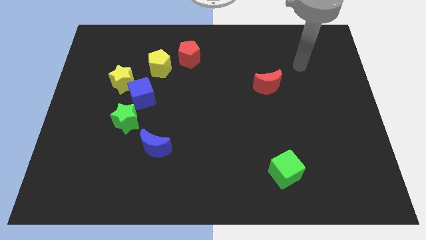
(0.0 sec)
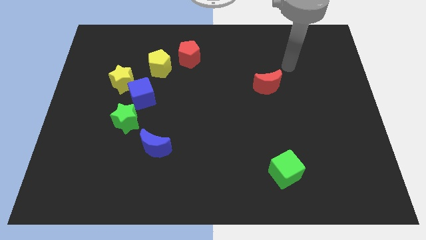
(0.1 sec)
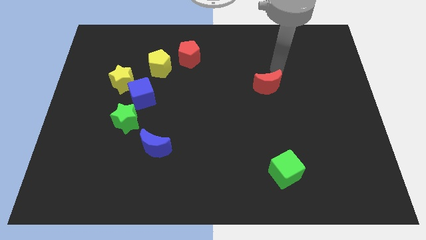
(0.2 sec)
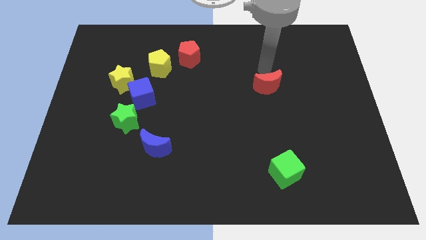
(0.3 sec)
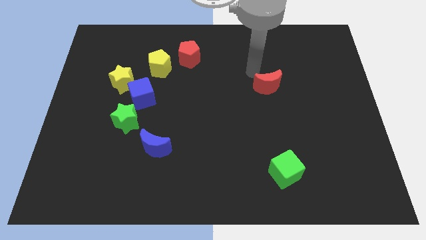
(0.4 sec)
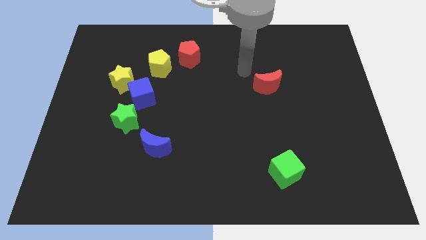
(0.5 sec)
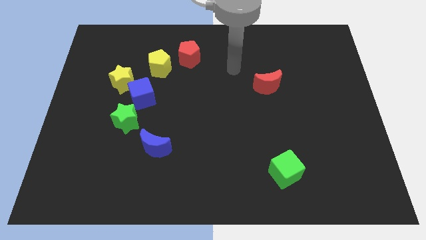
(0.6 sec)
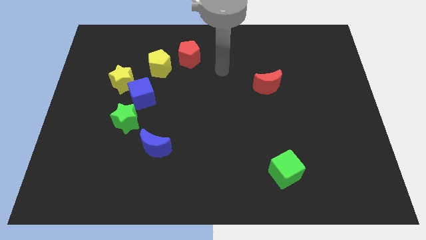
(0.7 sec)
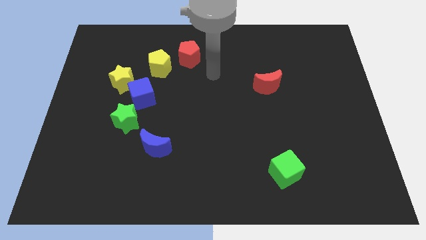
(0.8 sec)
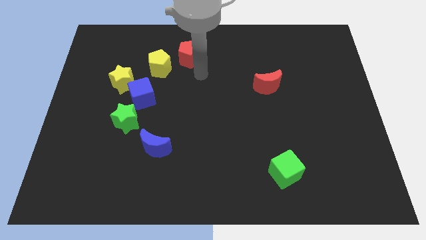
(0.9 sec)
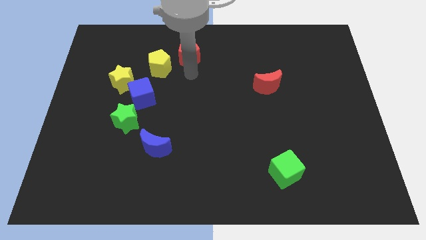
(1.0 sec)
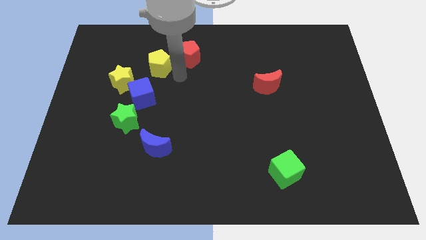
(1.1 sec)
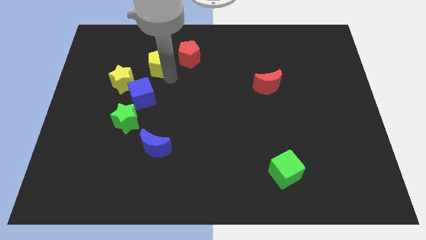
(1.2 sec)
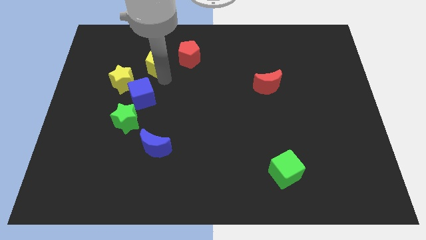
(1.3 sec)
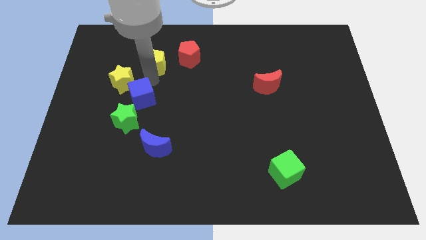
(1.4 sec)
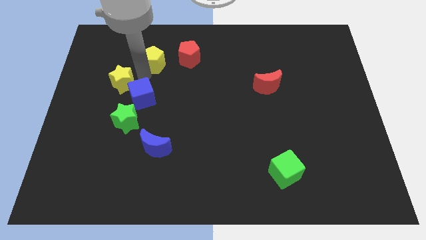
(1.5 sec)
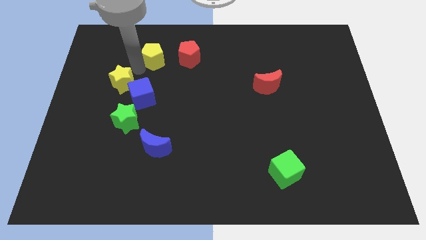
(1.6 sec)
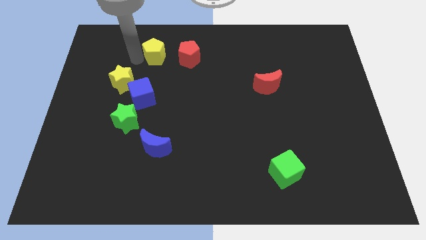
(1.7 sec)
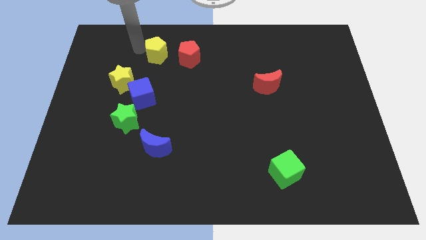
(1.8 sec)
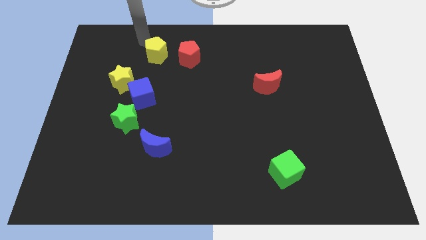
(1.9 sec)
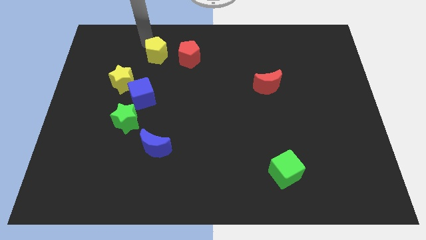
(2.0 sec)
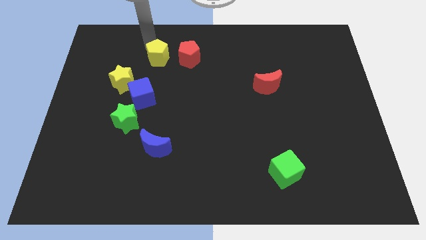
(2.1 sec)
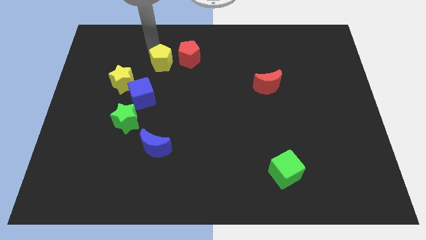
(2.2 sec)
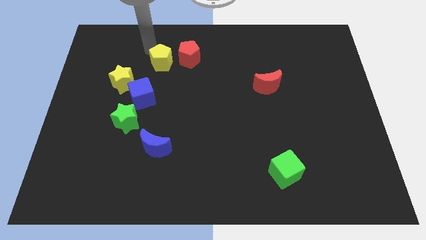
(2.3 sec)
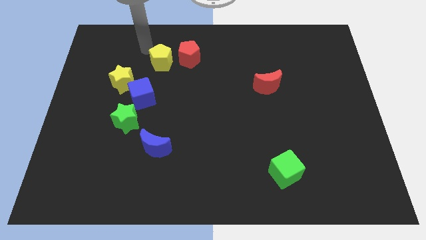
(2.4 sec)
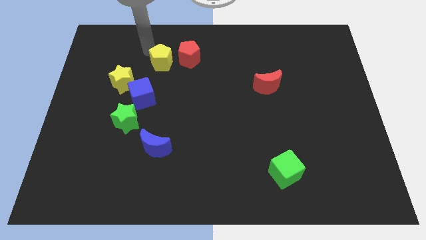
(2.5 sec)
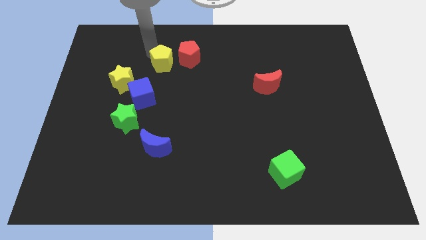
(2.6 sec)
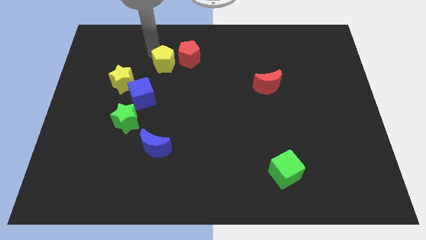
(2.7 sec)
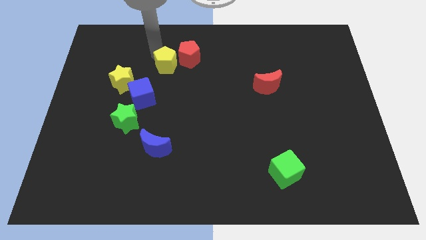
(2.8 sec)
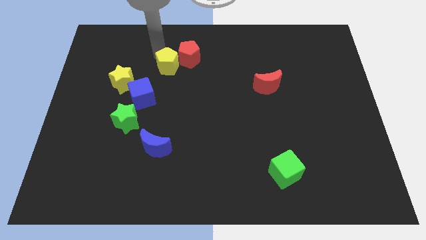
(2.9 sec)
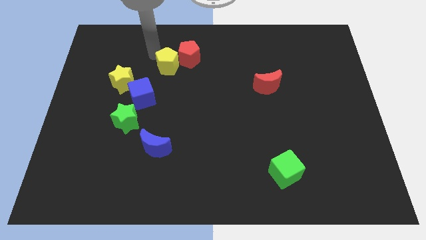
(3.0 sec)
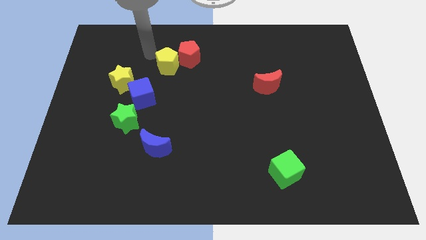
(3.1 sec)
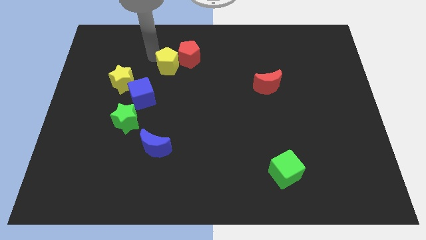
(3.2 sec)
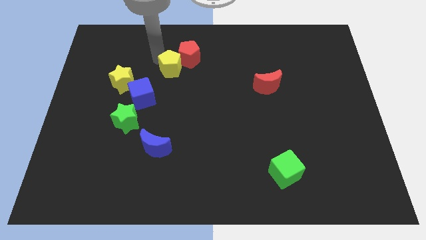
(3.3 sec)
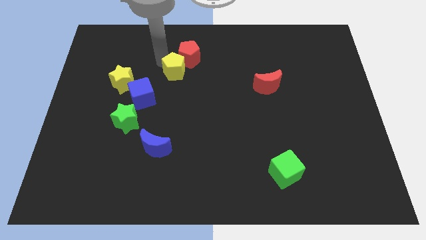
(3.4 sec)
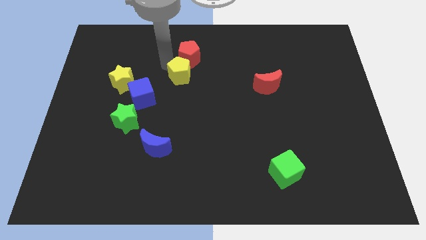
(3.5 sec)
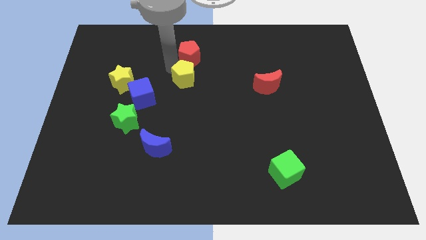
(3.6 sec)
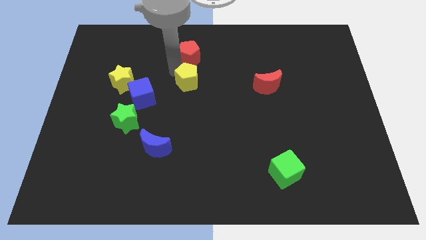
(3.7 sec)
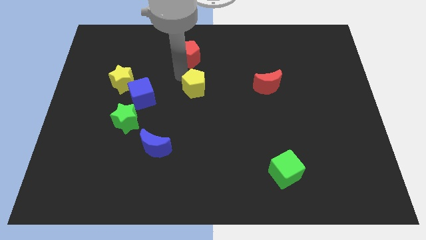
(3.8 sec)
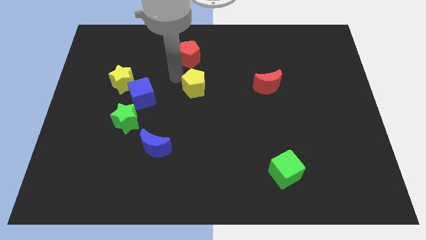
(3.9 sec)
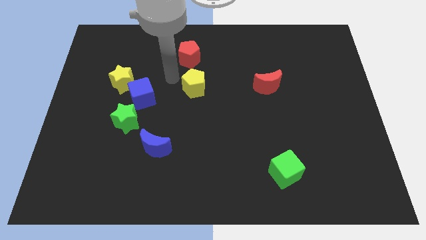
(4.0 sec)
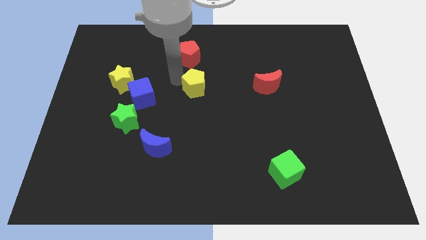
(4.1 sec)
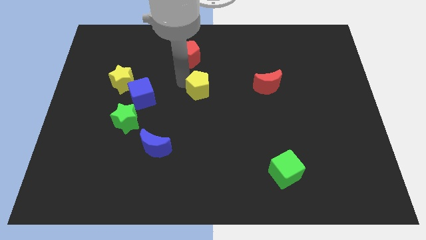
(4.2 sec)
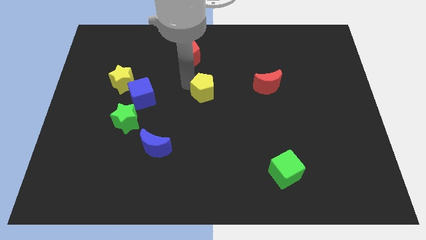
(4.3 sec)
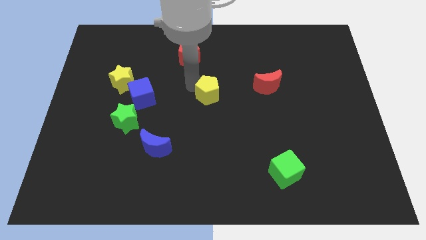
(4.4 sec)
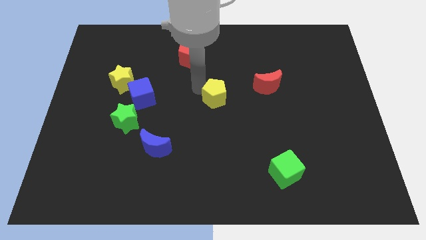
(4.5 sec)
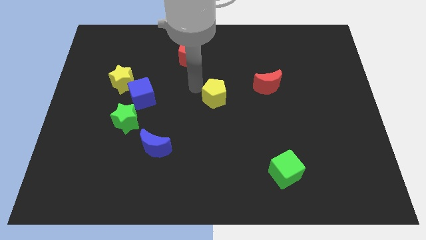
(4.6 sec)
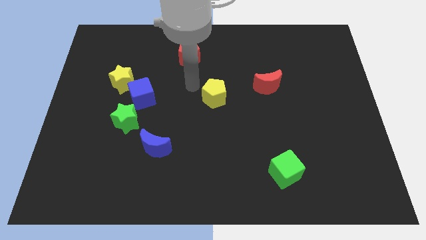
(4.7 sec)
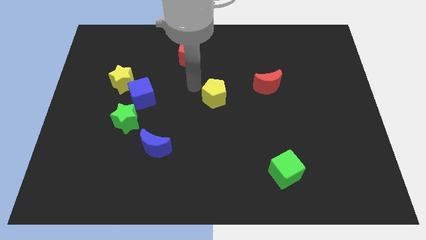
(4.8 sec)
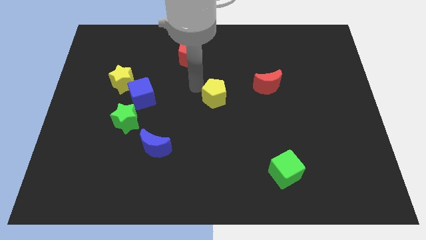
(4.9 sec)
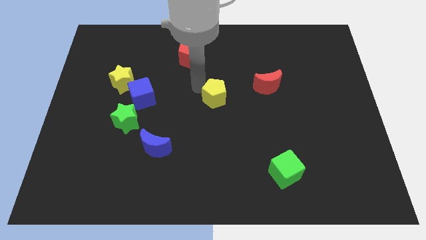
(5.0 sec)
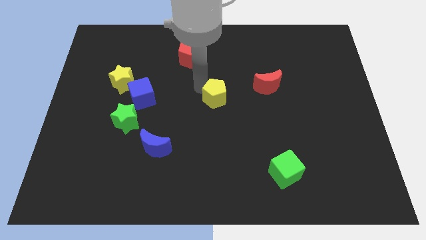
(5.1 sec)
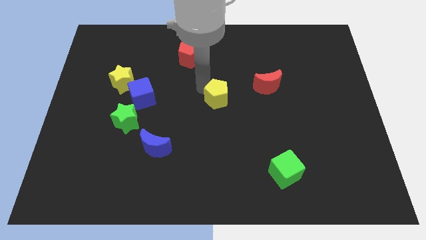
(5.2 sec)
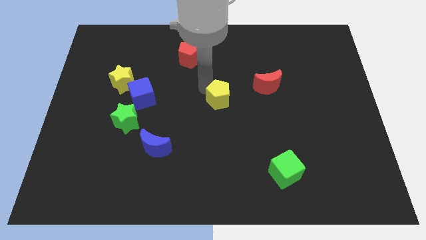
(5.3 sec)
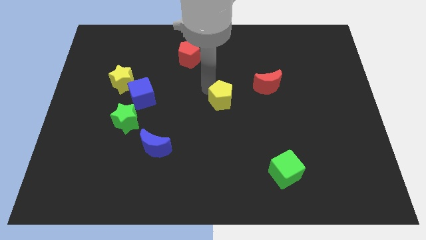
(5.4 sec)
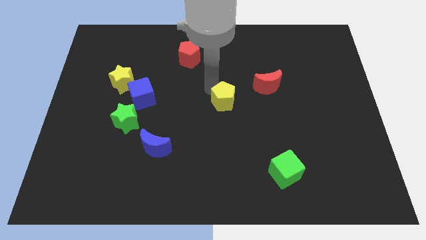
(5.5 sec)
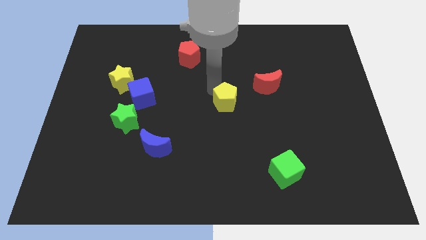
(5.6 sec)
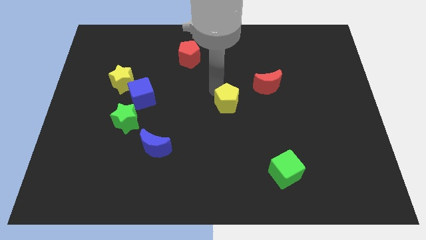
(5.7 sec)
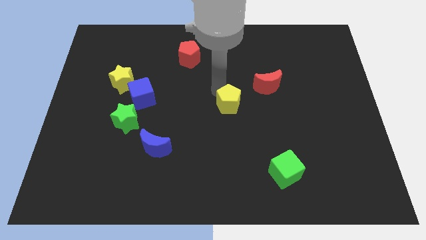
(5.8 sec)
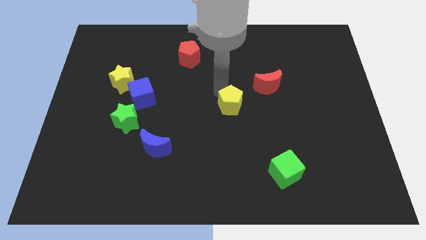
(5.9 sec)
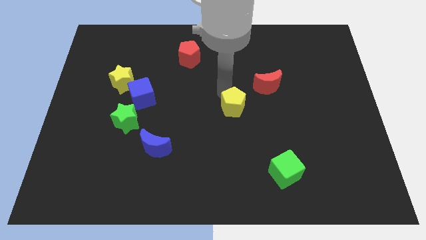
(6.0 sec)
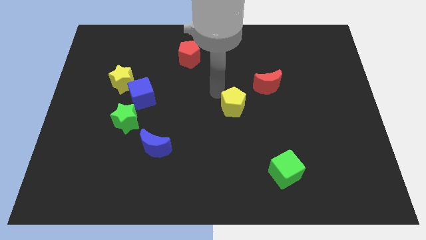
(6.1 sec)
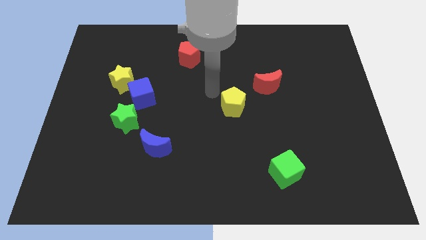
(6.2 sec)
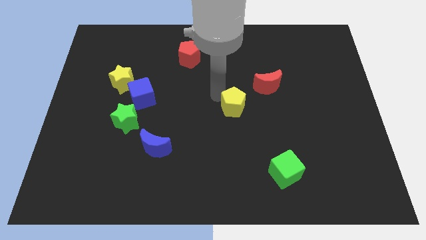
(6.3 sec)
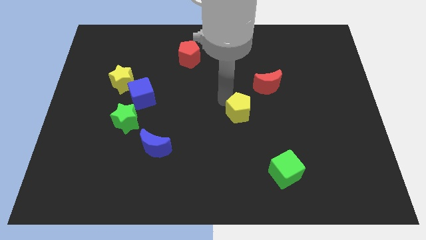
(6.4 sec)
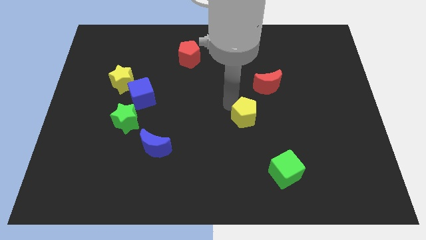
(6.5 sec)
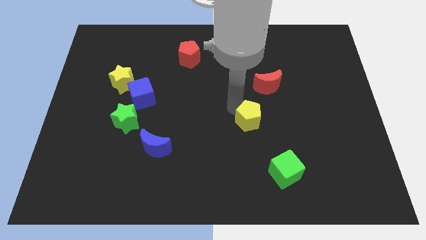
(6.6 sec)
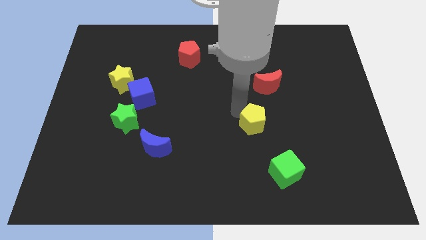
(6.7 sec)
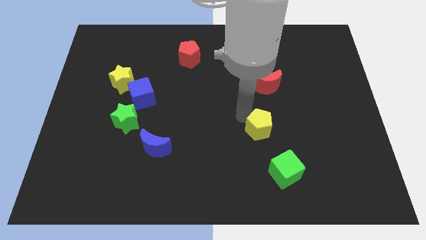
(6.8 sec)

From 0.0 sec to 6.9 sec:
put the yellow pentagon to the top of the green cube

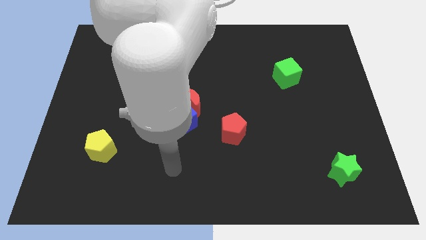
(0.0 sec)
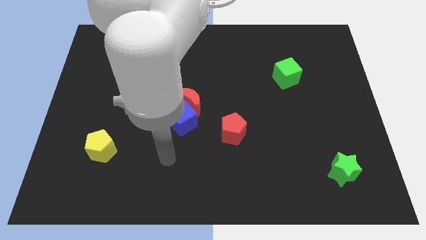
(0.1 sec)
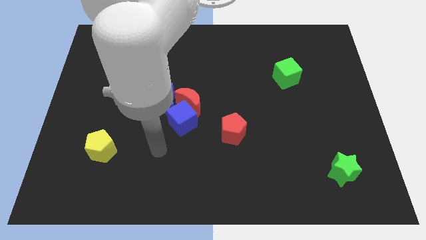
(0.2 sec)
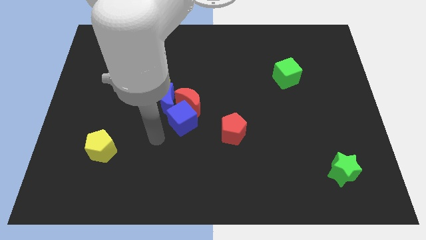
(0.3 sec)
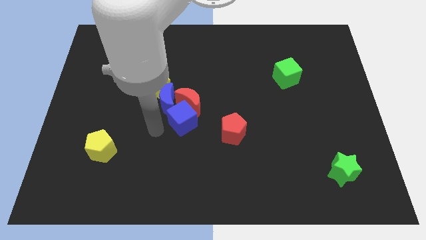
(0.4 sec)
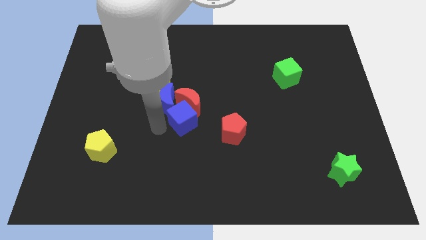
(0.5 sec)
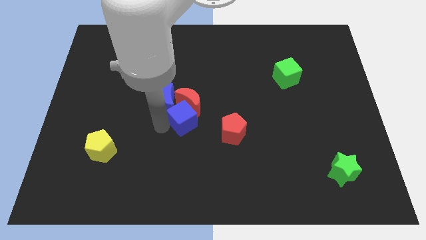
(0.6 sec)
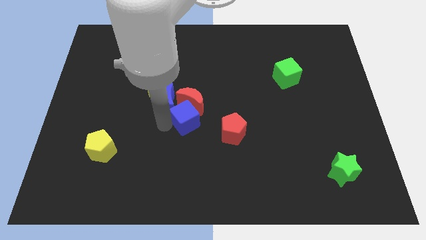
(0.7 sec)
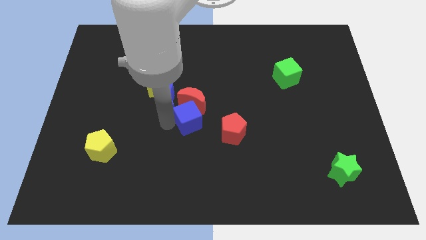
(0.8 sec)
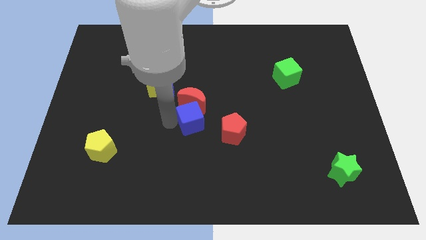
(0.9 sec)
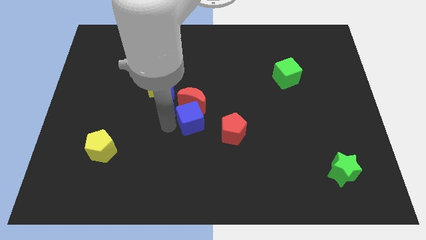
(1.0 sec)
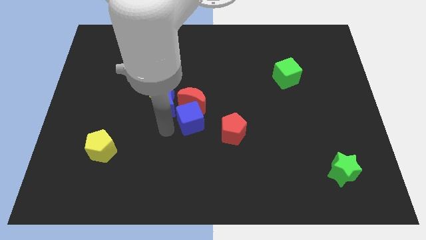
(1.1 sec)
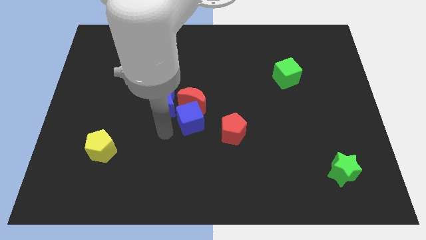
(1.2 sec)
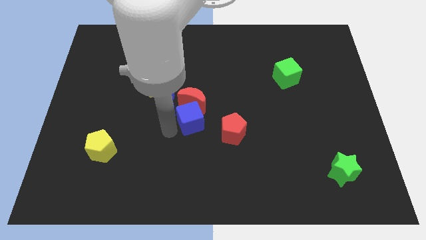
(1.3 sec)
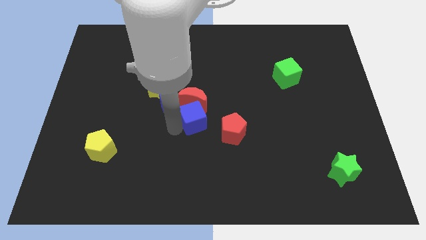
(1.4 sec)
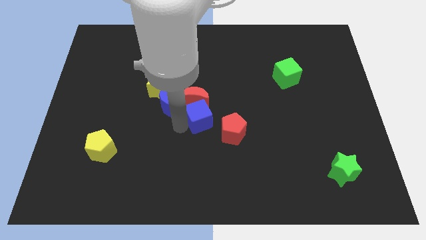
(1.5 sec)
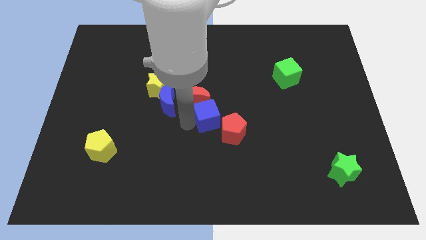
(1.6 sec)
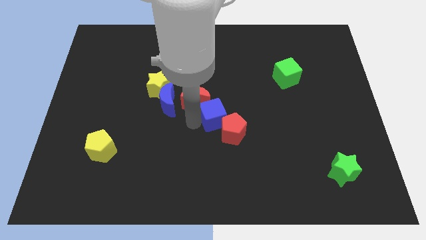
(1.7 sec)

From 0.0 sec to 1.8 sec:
push the blue cube right of the red moon
